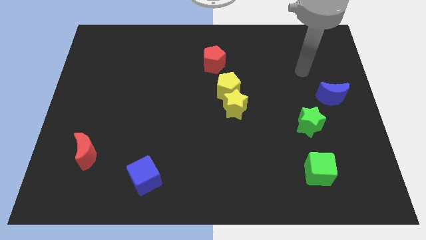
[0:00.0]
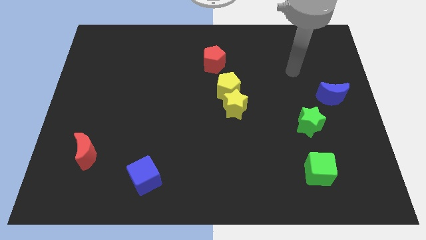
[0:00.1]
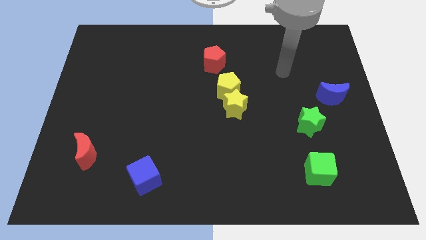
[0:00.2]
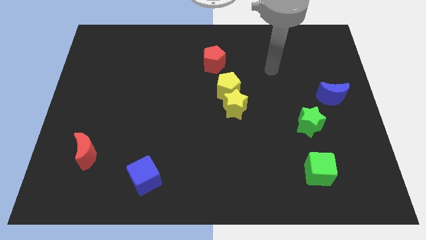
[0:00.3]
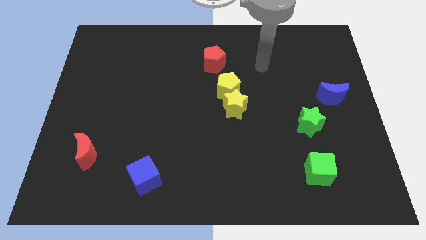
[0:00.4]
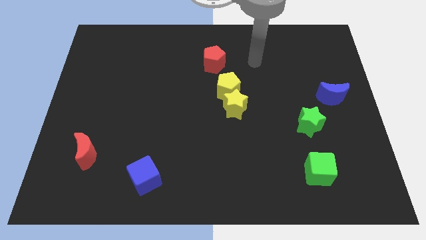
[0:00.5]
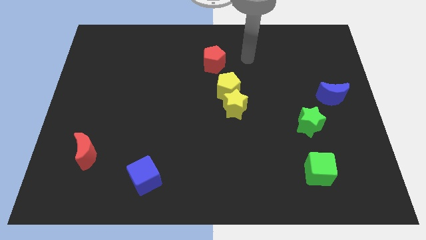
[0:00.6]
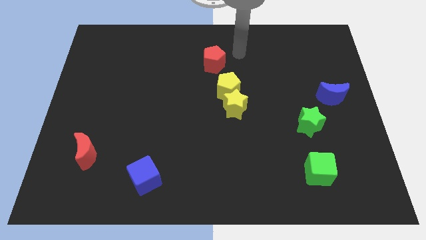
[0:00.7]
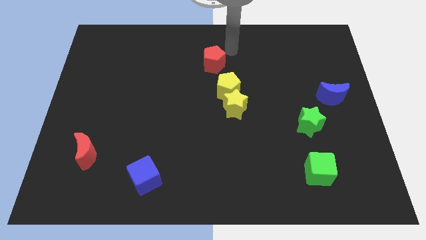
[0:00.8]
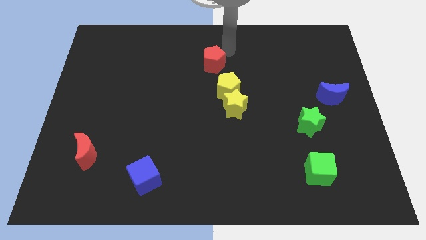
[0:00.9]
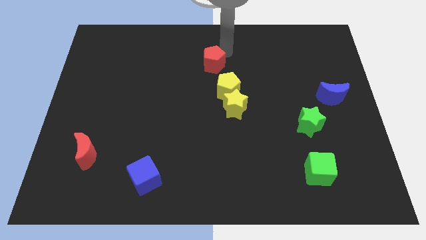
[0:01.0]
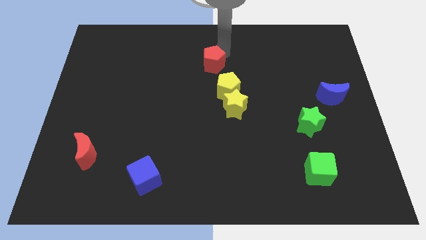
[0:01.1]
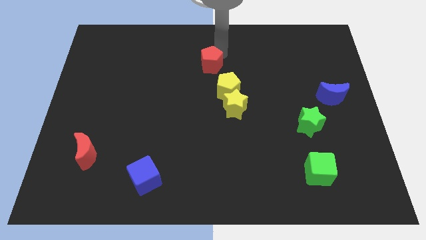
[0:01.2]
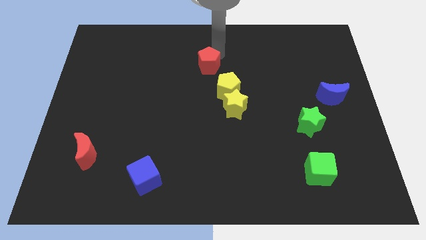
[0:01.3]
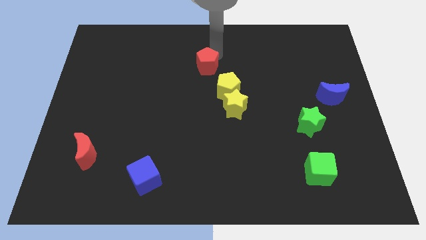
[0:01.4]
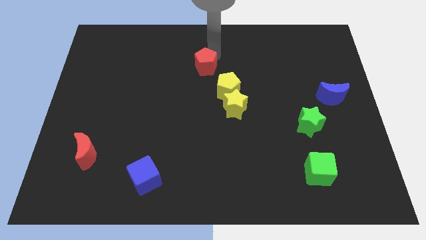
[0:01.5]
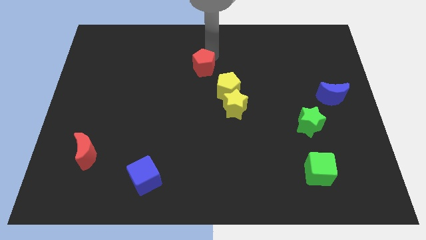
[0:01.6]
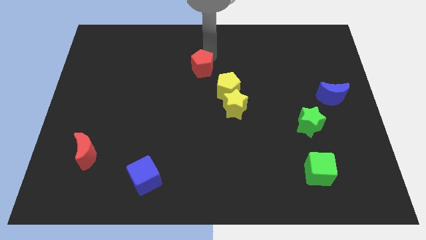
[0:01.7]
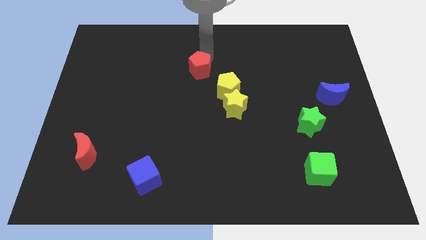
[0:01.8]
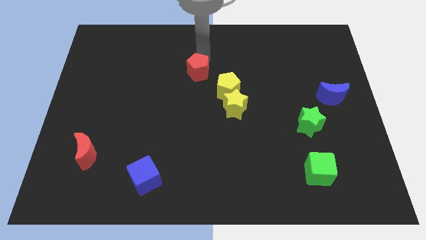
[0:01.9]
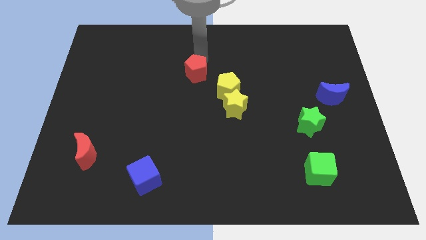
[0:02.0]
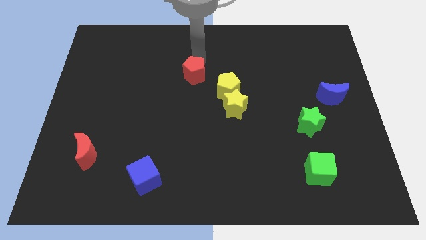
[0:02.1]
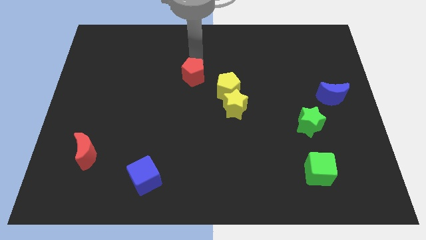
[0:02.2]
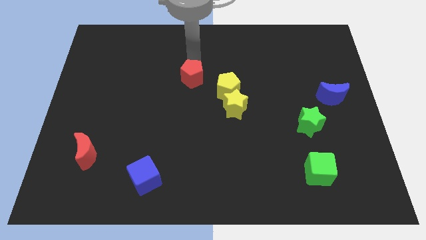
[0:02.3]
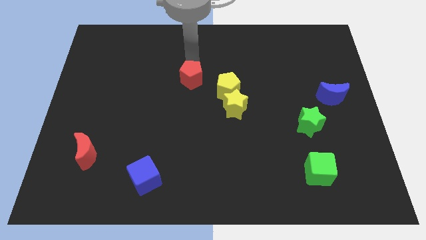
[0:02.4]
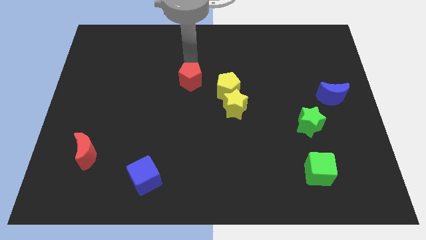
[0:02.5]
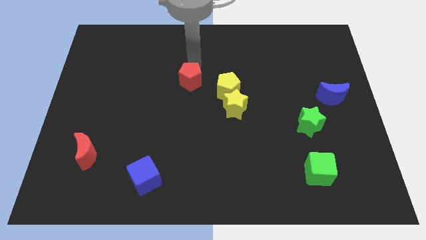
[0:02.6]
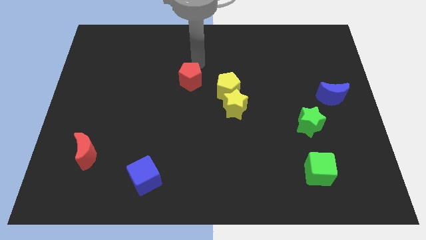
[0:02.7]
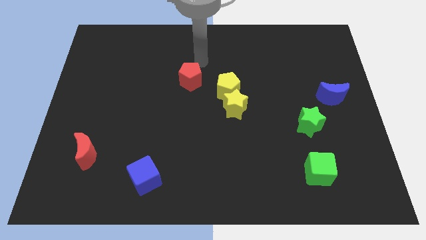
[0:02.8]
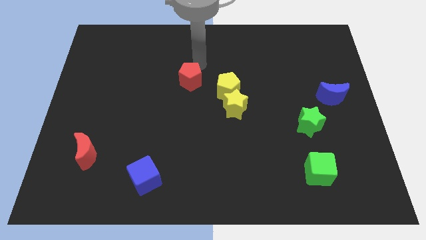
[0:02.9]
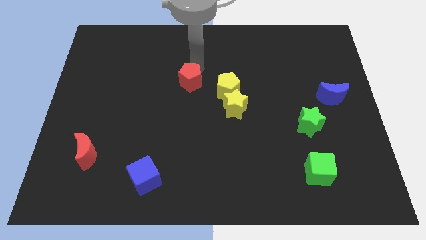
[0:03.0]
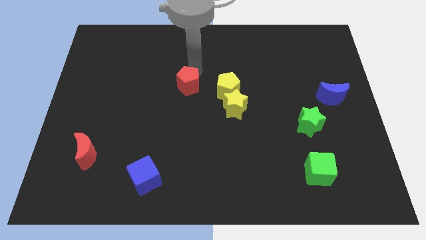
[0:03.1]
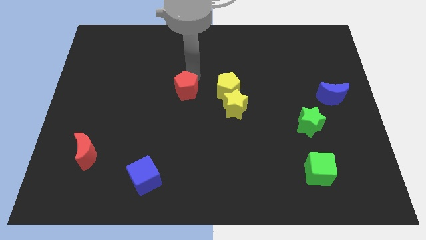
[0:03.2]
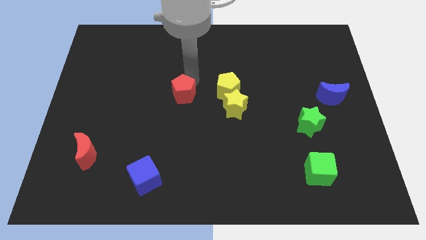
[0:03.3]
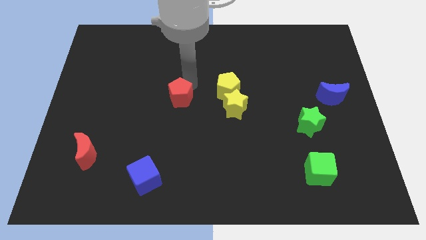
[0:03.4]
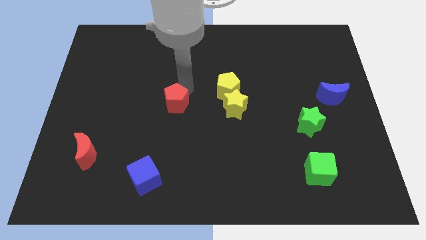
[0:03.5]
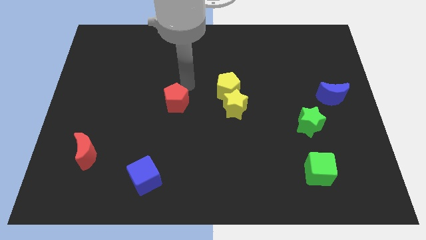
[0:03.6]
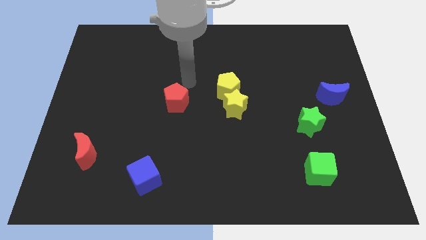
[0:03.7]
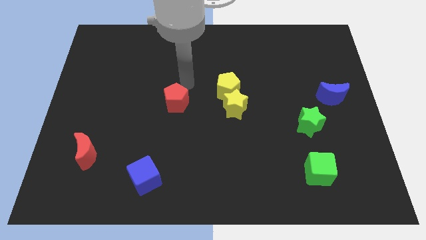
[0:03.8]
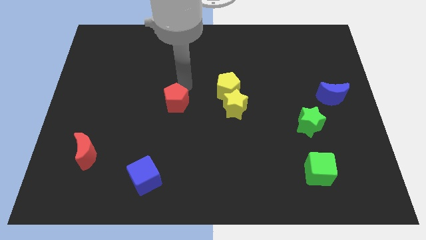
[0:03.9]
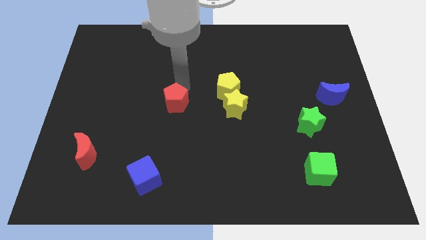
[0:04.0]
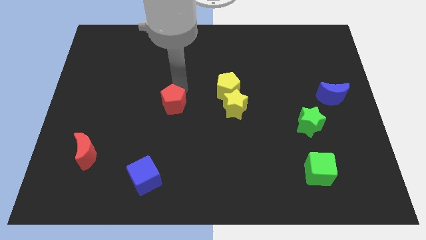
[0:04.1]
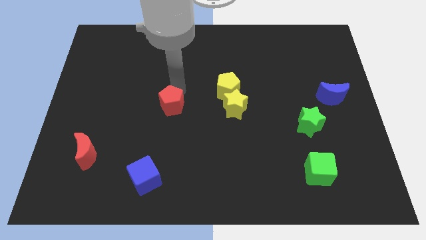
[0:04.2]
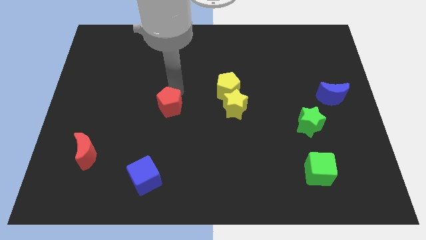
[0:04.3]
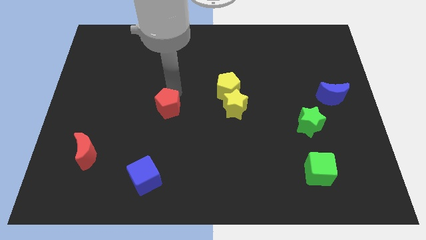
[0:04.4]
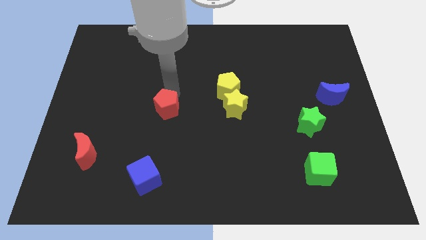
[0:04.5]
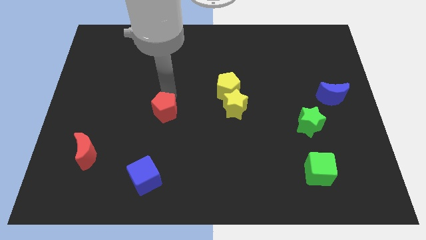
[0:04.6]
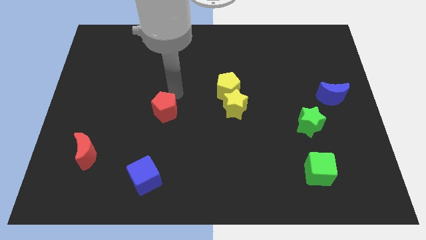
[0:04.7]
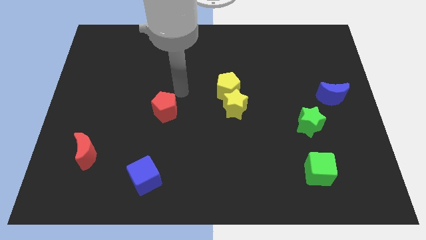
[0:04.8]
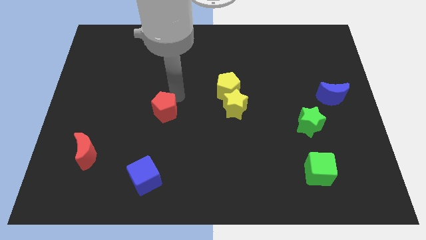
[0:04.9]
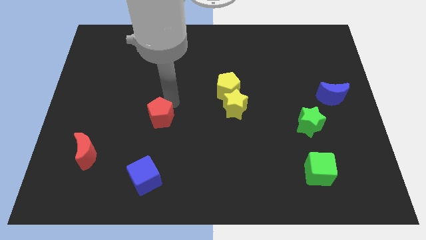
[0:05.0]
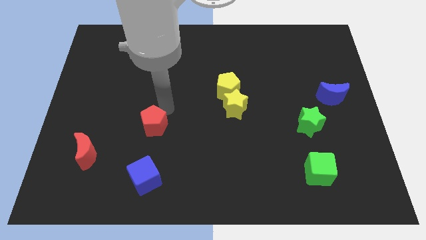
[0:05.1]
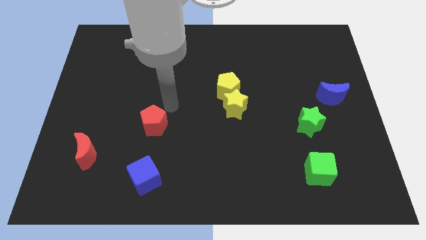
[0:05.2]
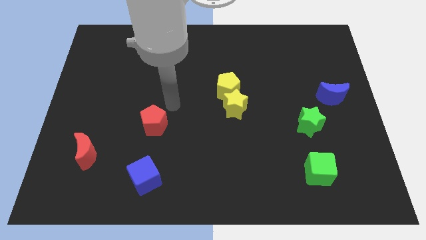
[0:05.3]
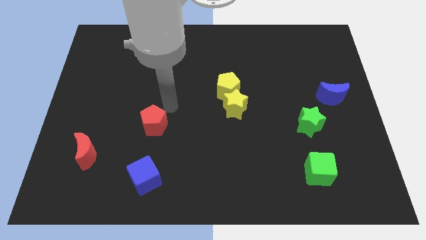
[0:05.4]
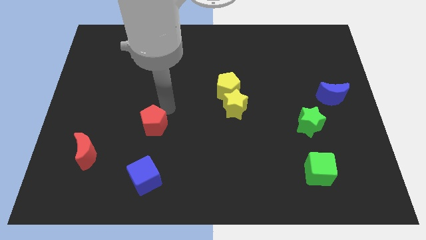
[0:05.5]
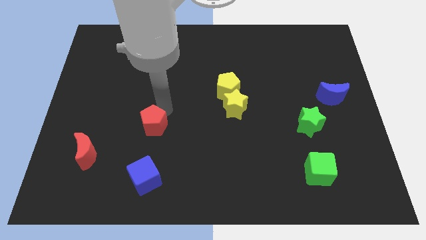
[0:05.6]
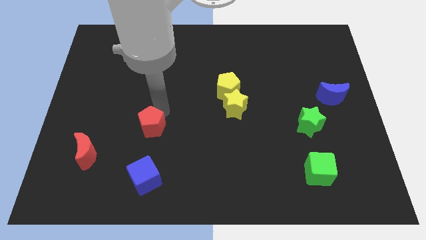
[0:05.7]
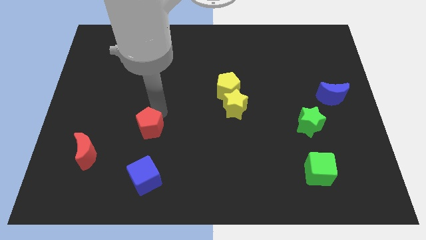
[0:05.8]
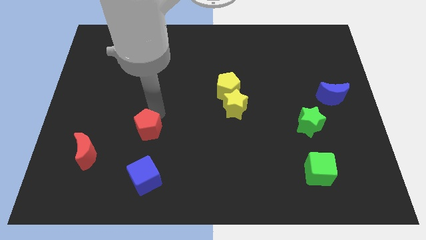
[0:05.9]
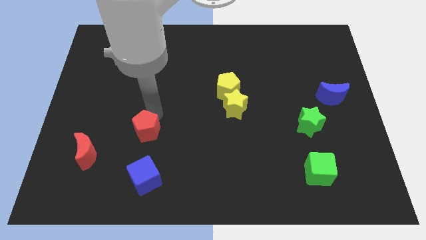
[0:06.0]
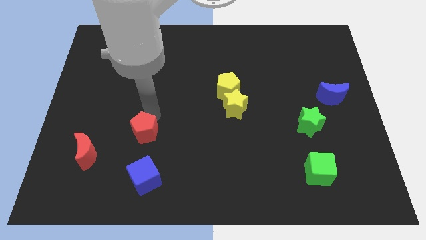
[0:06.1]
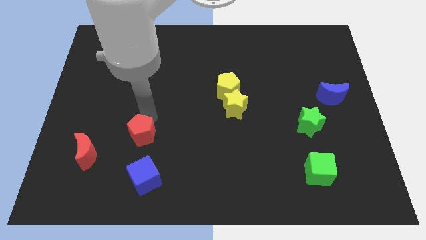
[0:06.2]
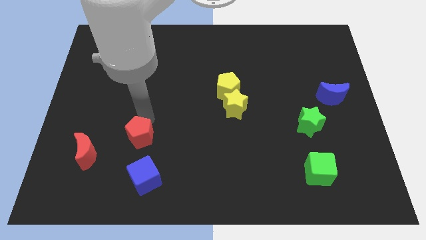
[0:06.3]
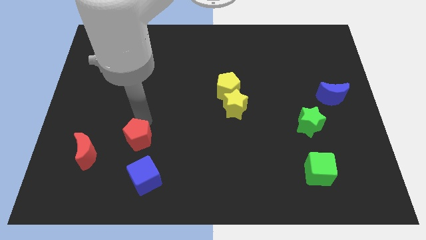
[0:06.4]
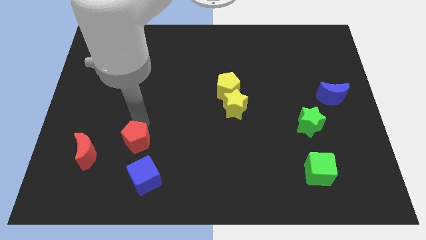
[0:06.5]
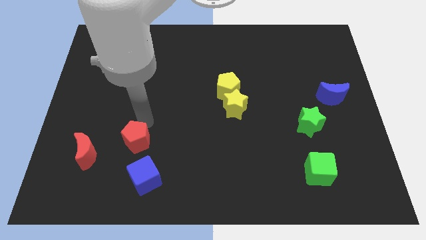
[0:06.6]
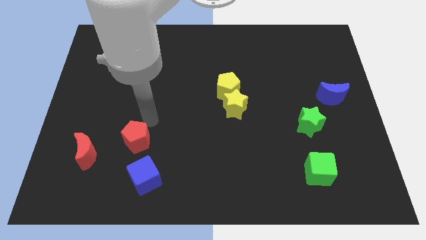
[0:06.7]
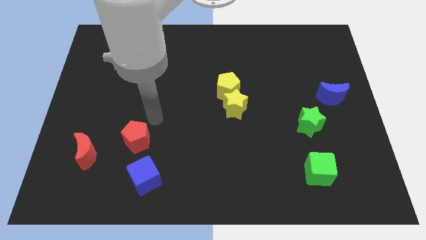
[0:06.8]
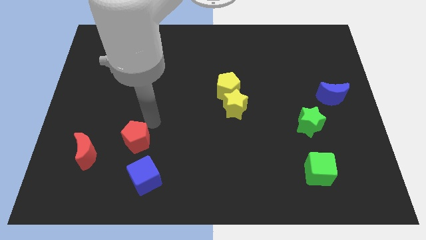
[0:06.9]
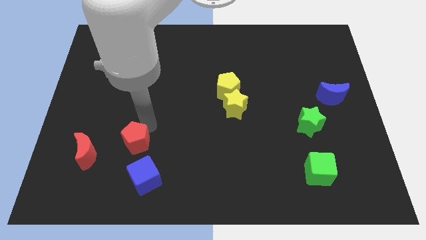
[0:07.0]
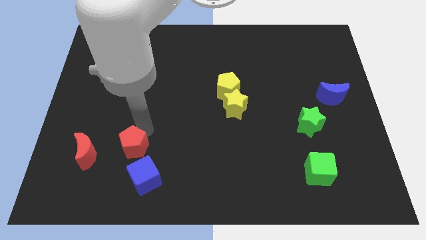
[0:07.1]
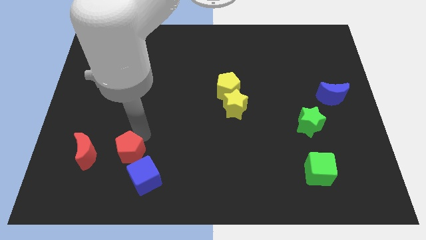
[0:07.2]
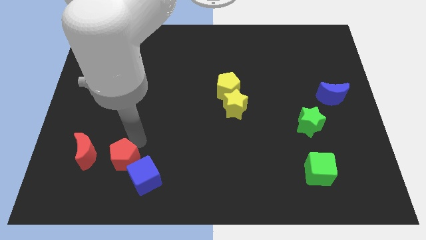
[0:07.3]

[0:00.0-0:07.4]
move the red pentagon diagonally down and to the right of the red moon
